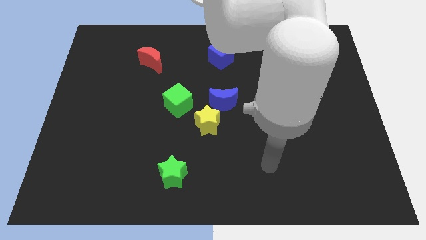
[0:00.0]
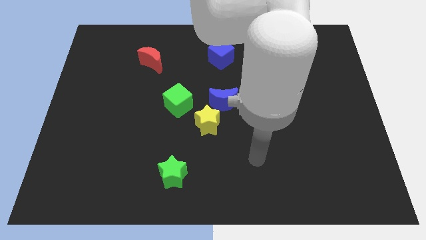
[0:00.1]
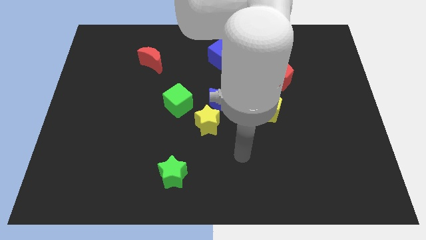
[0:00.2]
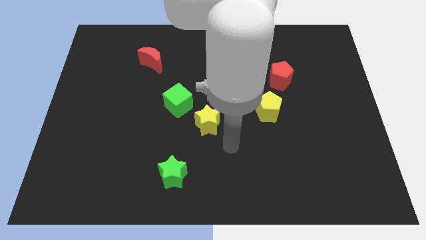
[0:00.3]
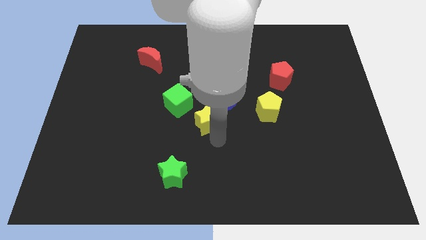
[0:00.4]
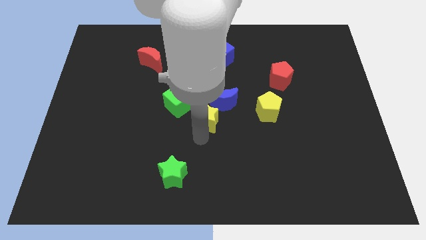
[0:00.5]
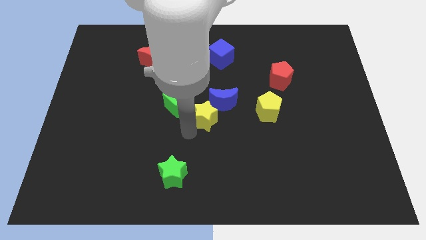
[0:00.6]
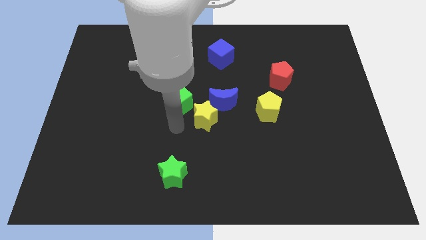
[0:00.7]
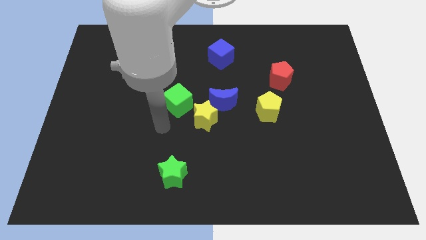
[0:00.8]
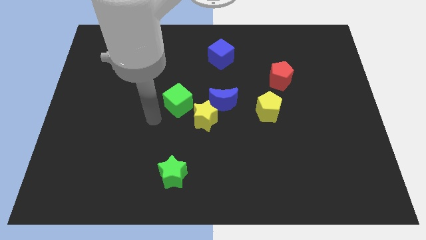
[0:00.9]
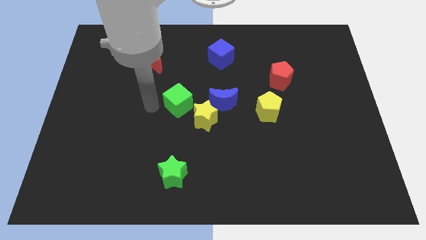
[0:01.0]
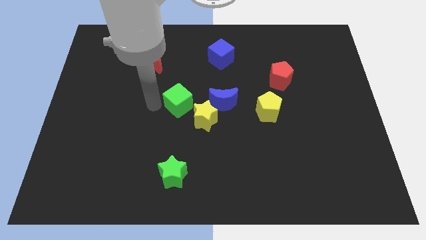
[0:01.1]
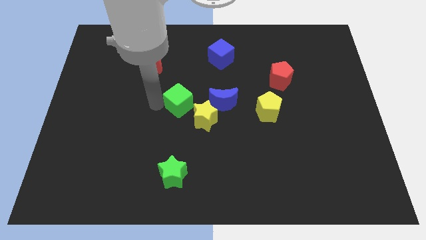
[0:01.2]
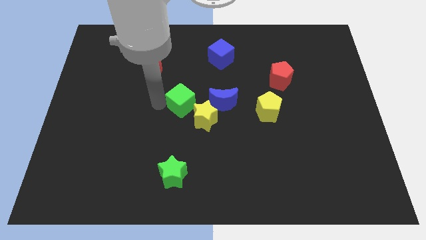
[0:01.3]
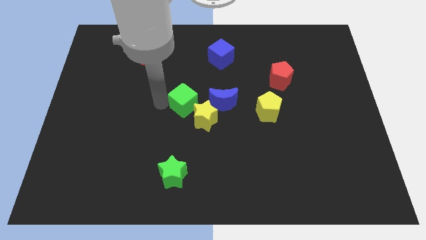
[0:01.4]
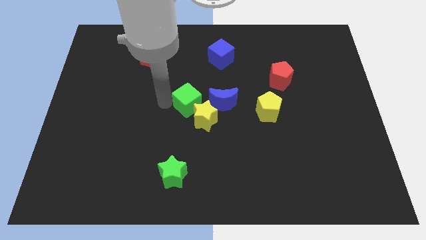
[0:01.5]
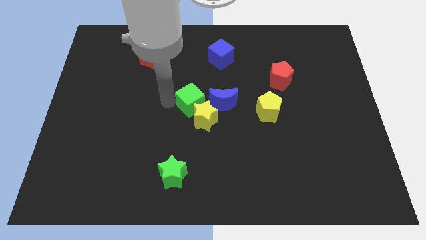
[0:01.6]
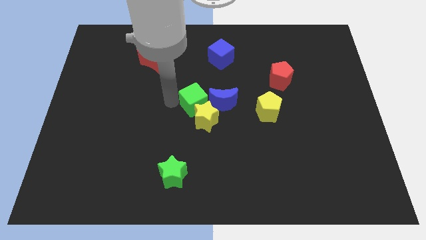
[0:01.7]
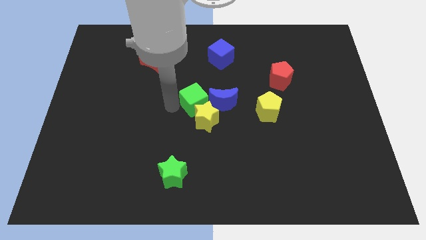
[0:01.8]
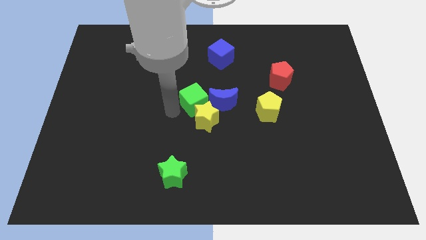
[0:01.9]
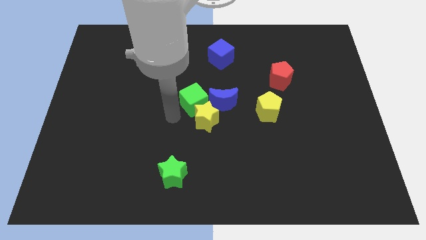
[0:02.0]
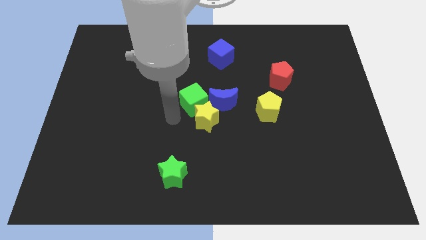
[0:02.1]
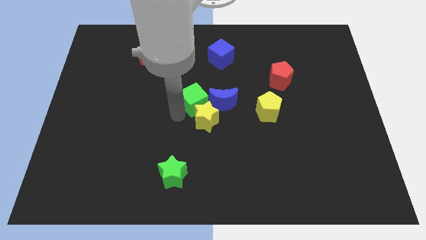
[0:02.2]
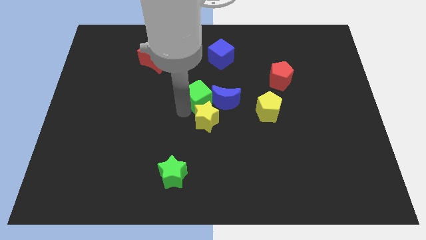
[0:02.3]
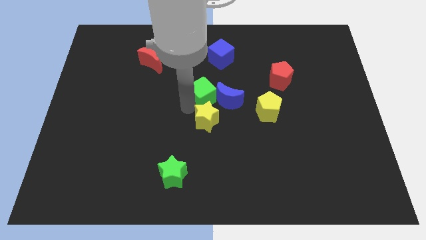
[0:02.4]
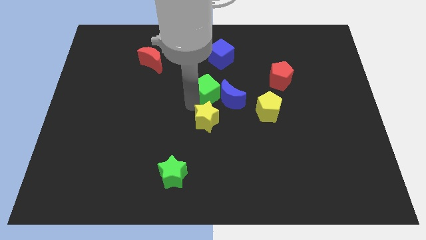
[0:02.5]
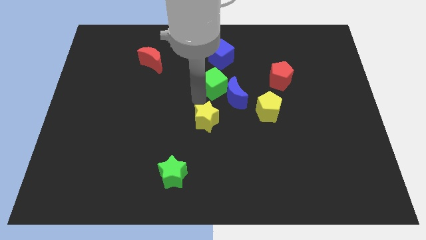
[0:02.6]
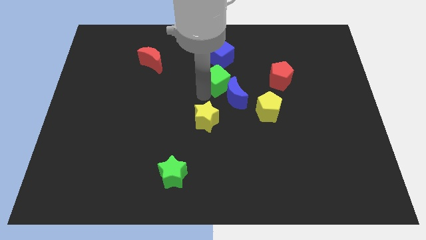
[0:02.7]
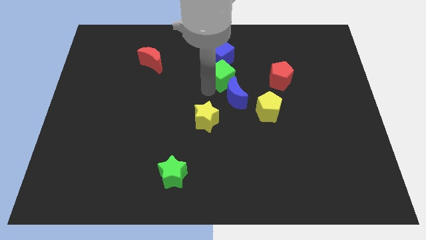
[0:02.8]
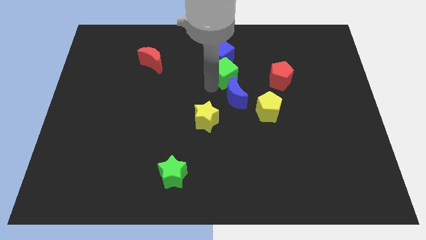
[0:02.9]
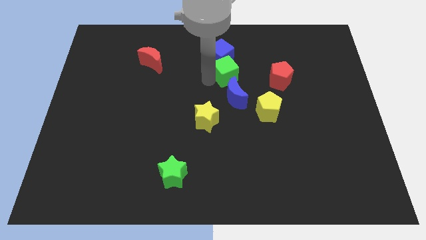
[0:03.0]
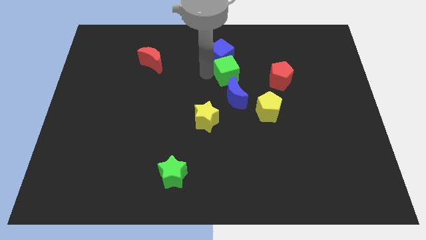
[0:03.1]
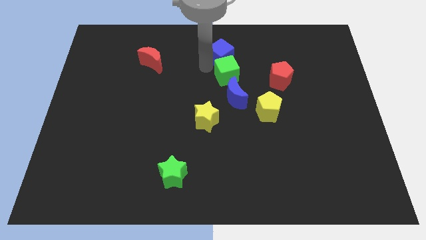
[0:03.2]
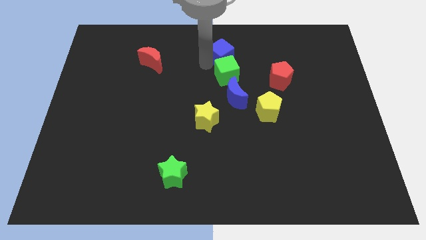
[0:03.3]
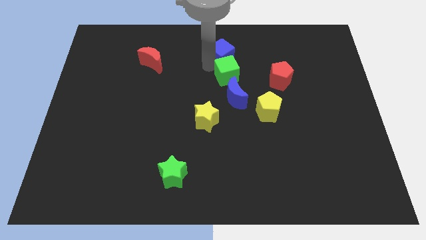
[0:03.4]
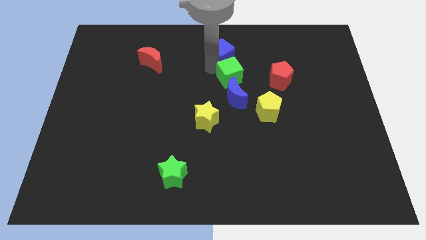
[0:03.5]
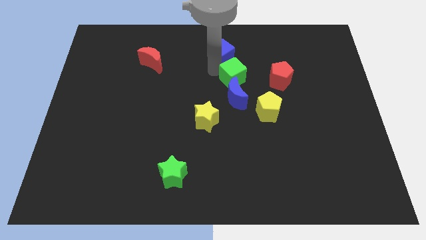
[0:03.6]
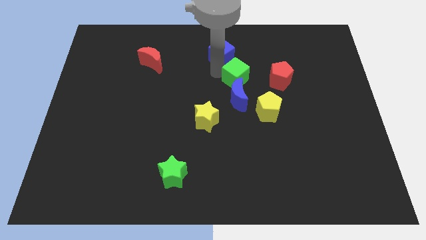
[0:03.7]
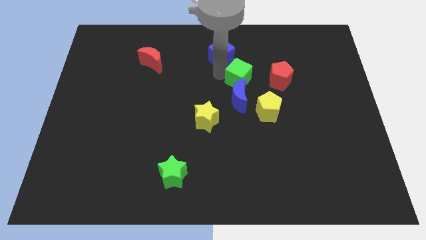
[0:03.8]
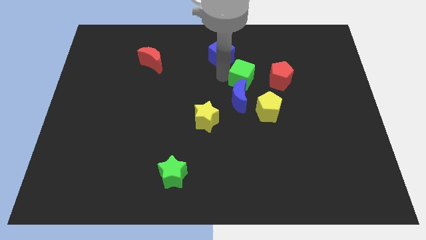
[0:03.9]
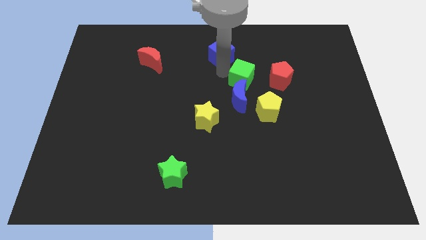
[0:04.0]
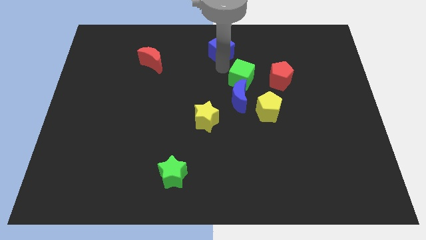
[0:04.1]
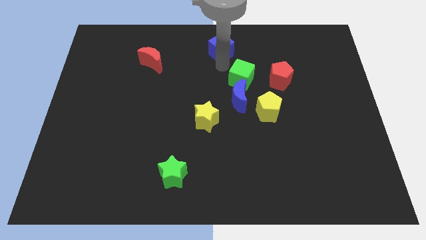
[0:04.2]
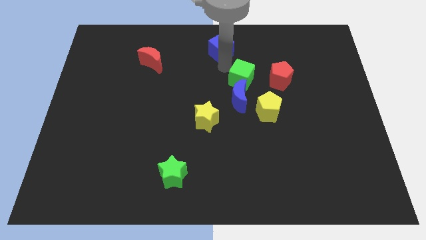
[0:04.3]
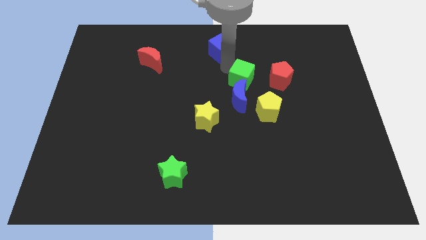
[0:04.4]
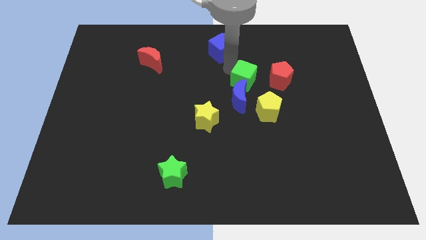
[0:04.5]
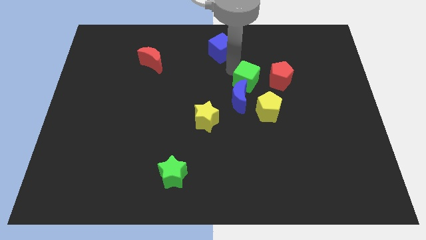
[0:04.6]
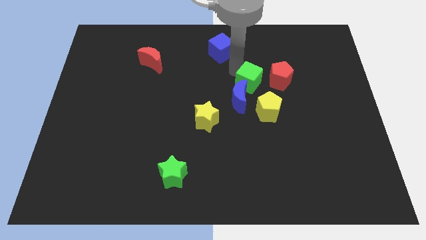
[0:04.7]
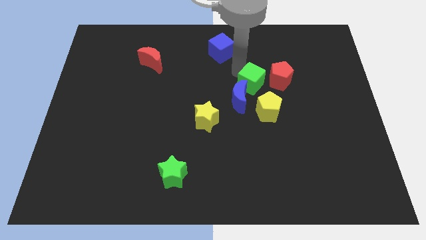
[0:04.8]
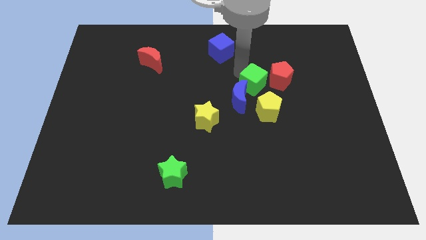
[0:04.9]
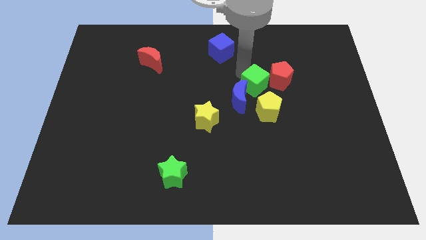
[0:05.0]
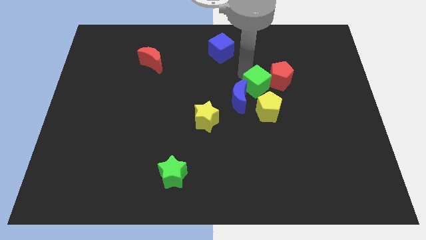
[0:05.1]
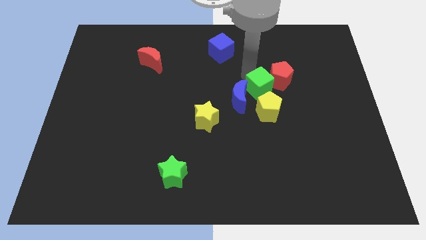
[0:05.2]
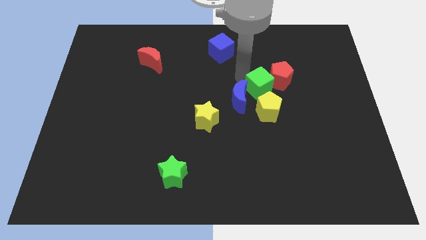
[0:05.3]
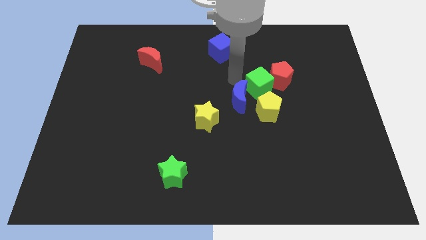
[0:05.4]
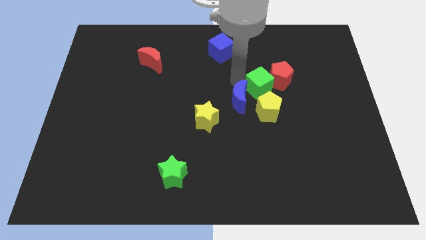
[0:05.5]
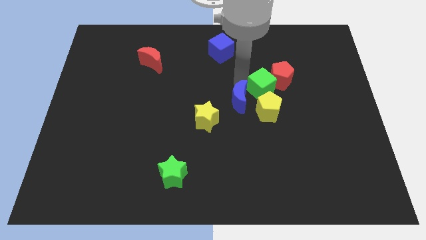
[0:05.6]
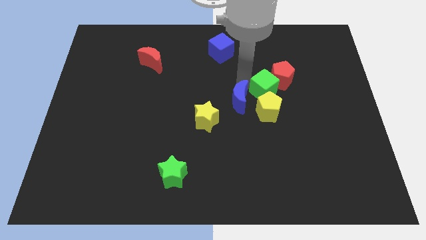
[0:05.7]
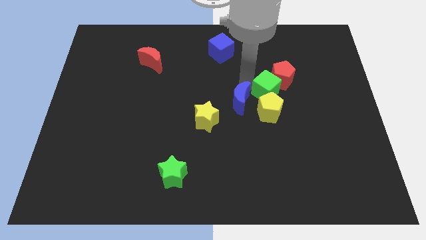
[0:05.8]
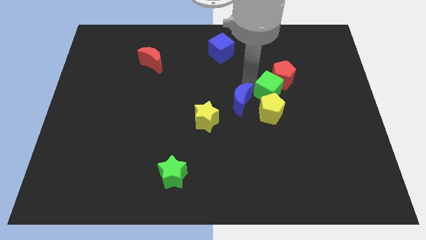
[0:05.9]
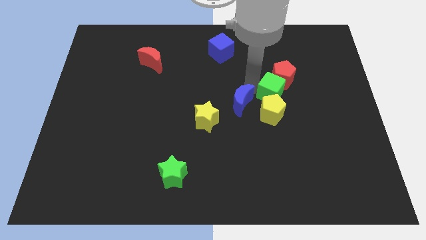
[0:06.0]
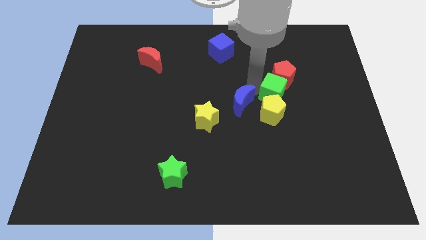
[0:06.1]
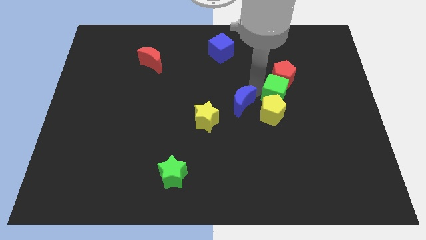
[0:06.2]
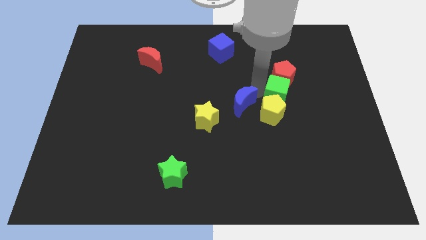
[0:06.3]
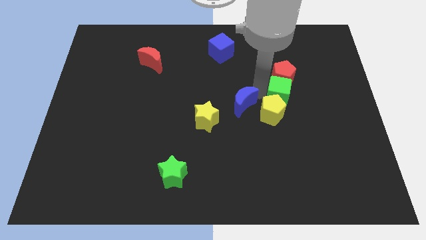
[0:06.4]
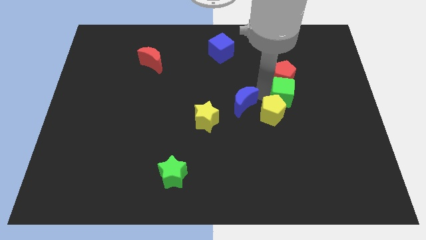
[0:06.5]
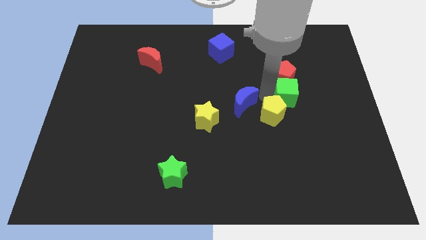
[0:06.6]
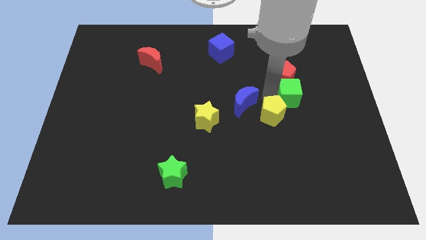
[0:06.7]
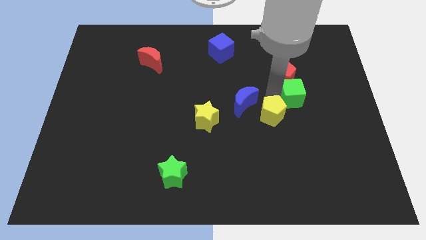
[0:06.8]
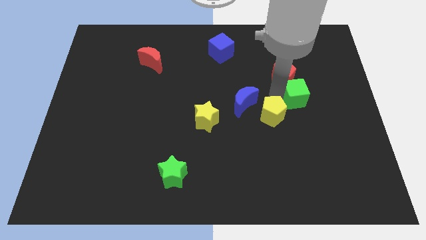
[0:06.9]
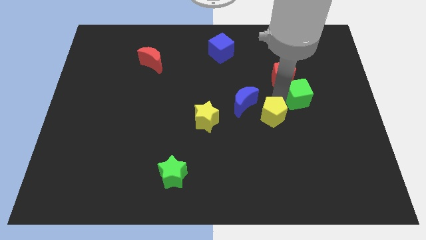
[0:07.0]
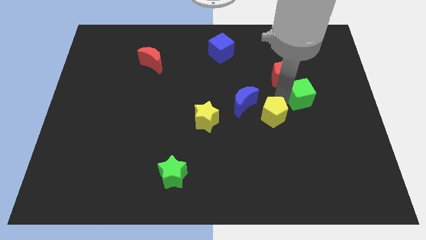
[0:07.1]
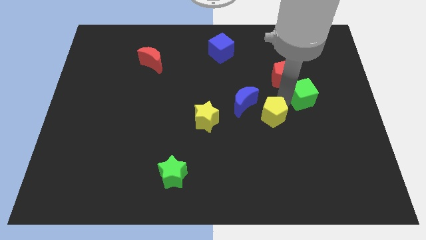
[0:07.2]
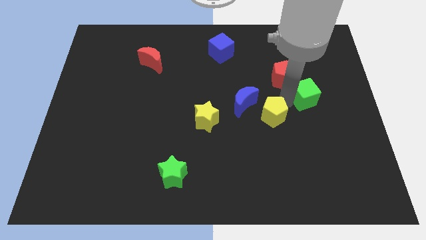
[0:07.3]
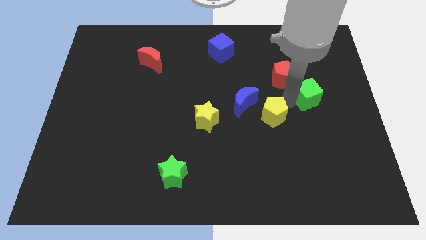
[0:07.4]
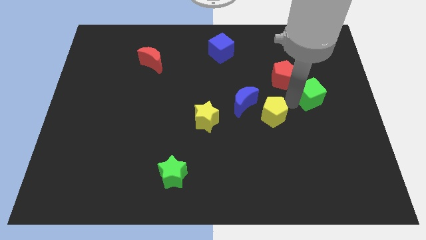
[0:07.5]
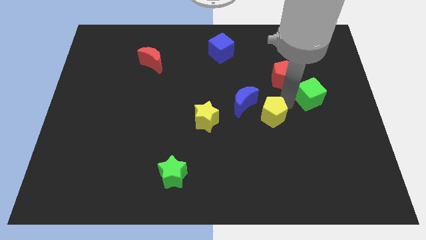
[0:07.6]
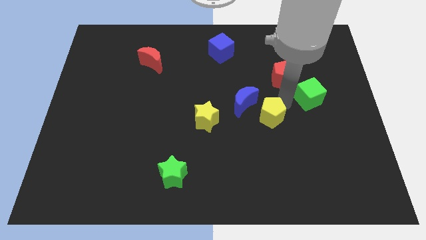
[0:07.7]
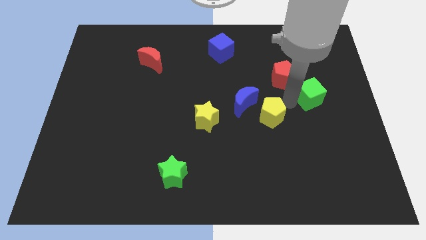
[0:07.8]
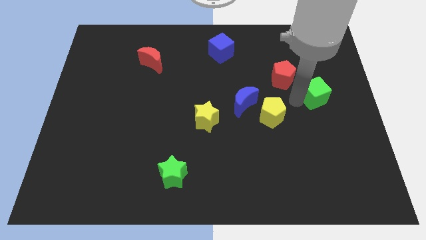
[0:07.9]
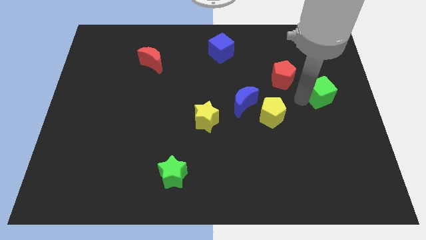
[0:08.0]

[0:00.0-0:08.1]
move the green cube to the right side
